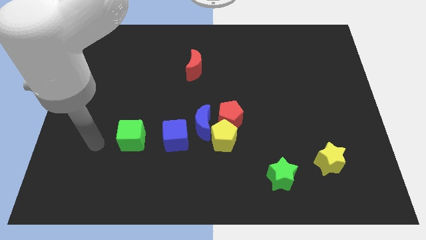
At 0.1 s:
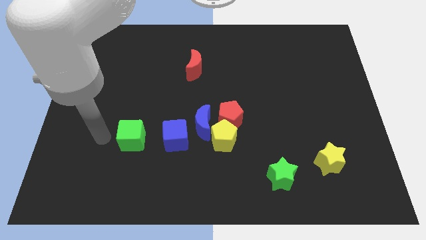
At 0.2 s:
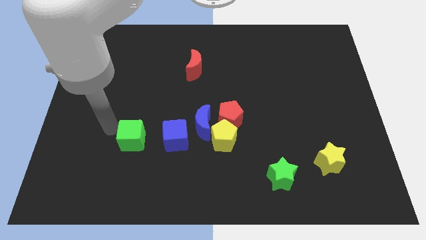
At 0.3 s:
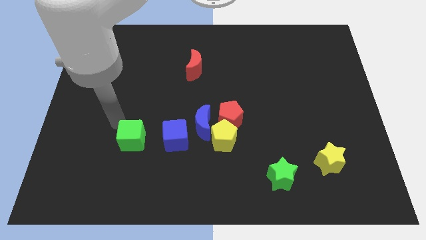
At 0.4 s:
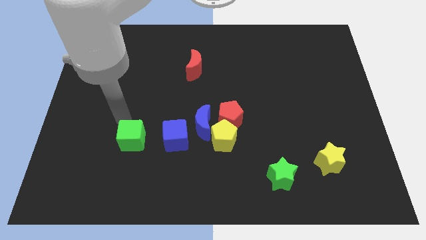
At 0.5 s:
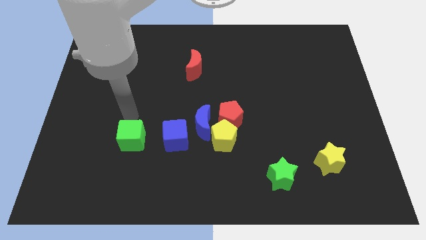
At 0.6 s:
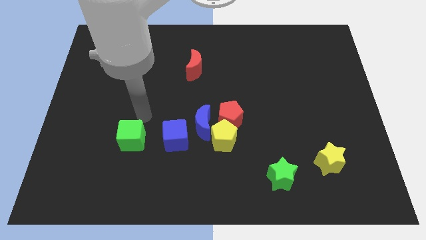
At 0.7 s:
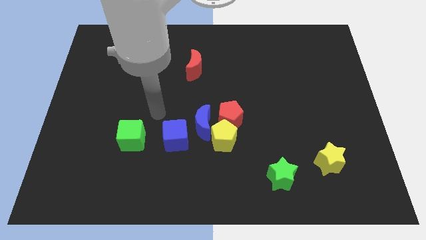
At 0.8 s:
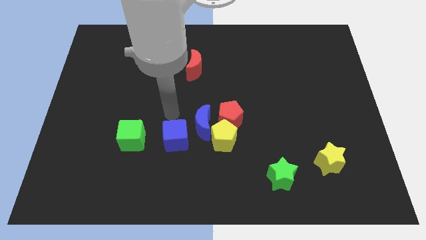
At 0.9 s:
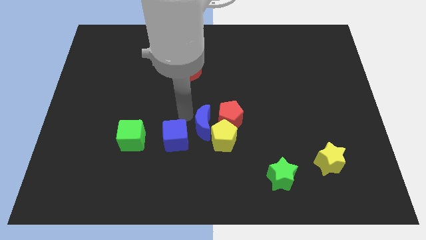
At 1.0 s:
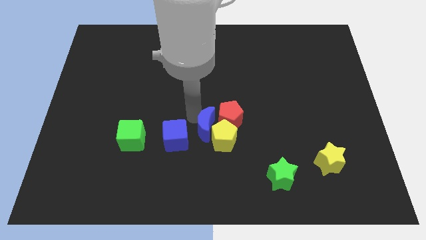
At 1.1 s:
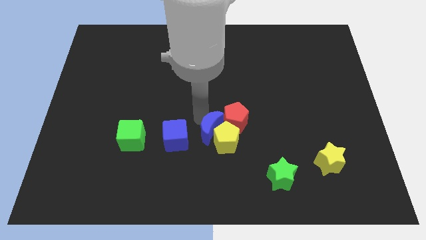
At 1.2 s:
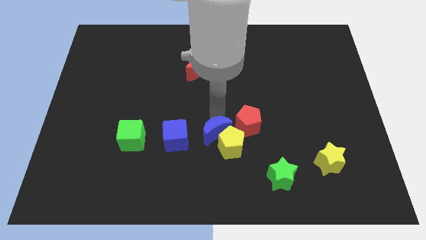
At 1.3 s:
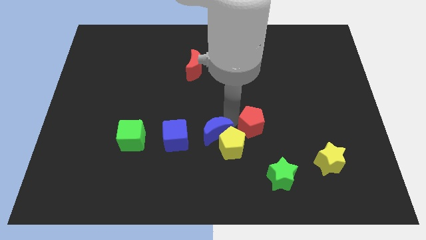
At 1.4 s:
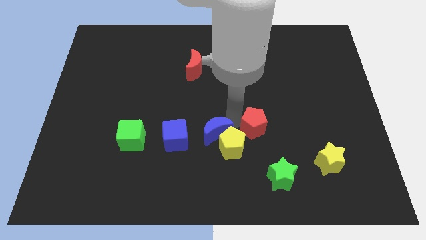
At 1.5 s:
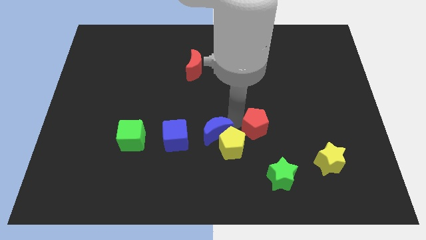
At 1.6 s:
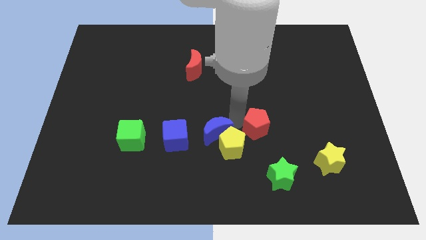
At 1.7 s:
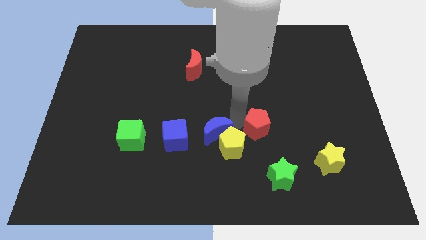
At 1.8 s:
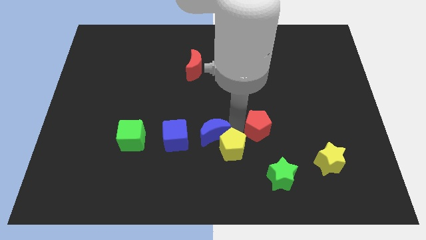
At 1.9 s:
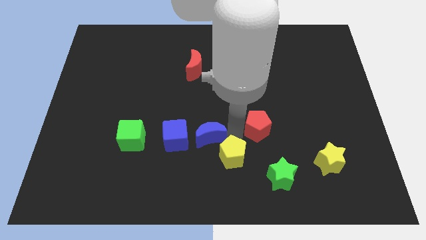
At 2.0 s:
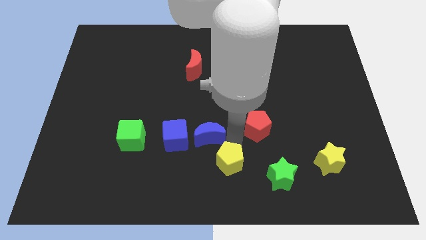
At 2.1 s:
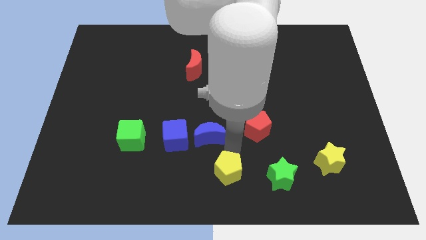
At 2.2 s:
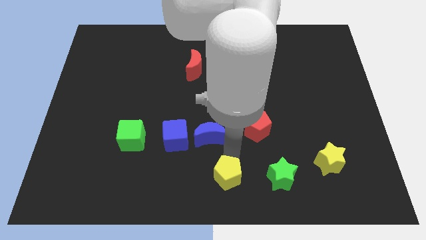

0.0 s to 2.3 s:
separate the yellow pentagon from the red pentagon and blue moon

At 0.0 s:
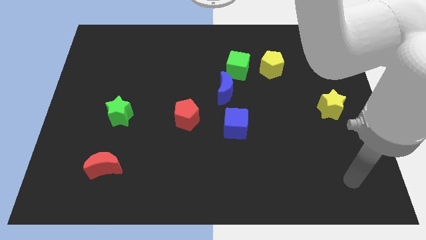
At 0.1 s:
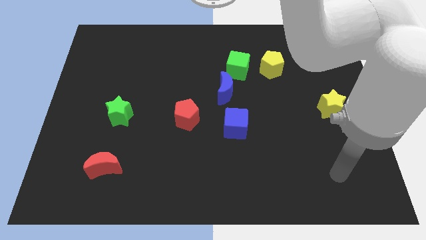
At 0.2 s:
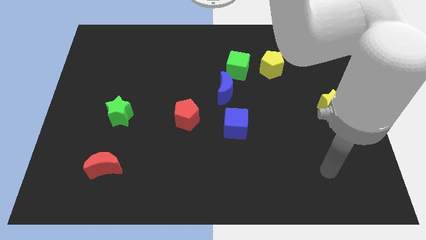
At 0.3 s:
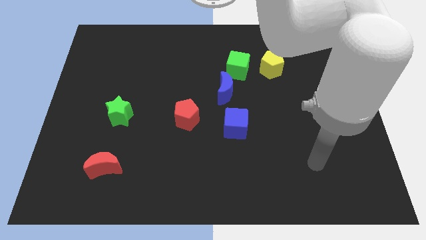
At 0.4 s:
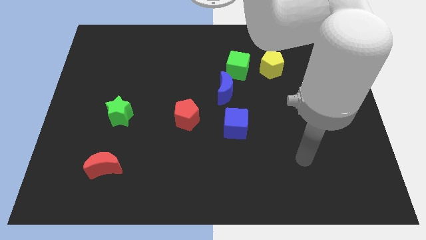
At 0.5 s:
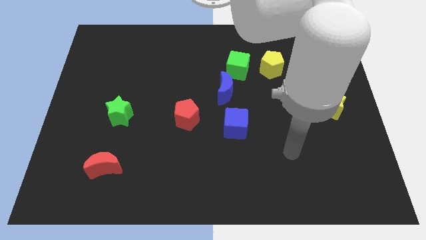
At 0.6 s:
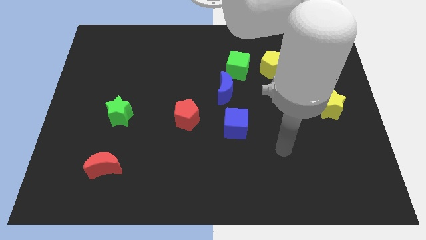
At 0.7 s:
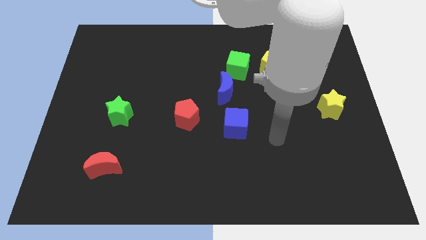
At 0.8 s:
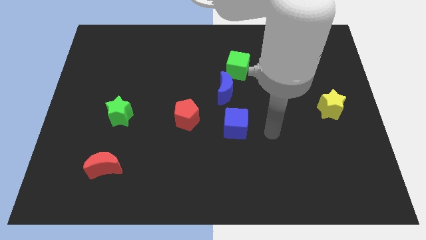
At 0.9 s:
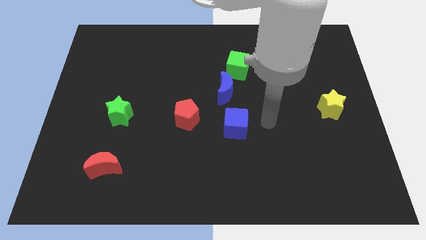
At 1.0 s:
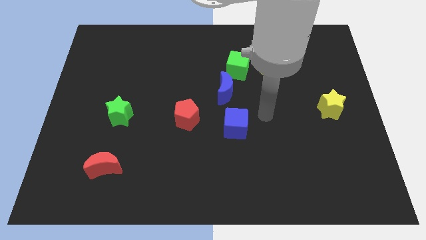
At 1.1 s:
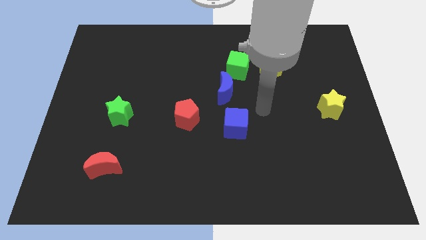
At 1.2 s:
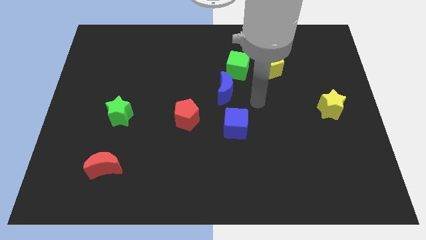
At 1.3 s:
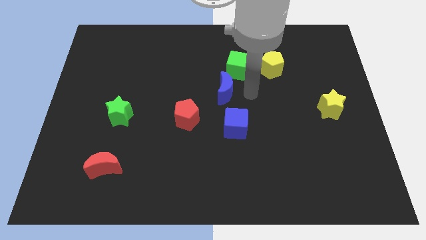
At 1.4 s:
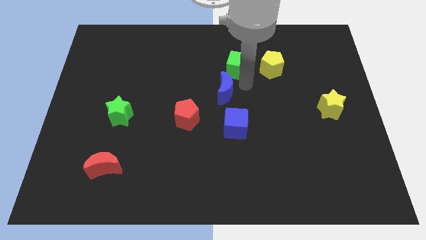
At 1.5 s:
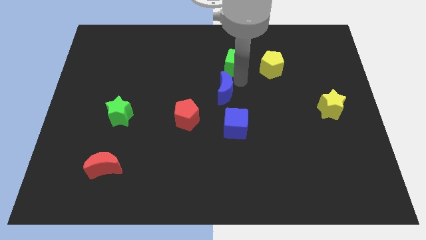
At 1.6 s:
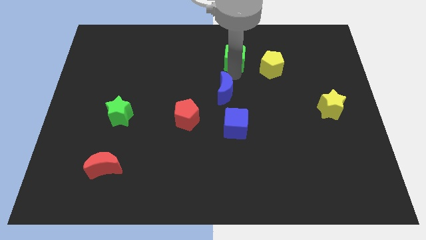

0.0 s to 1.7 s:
move the blue moon away from the green cube

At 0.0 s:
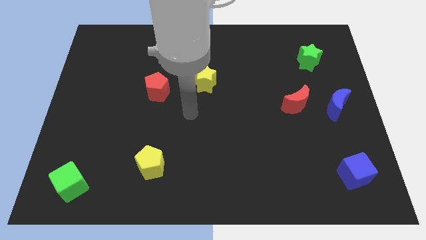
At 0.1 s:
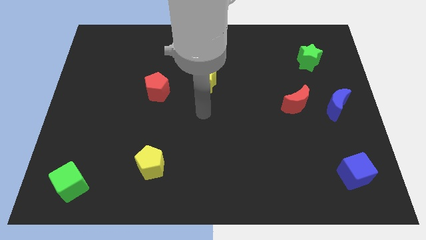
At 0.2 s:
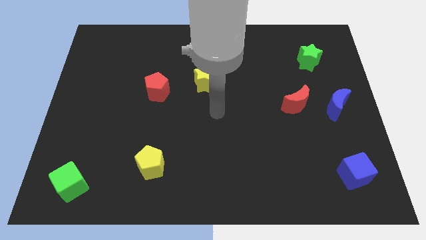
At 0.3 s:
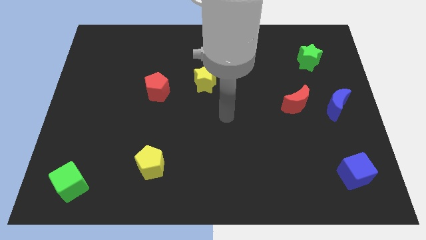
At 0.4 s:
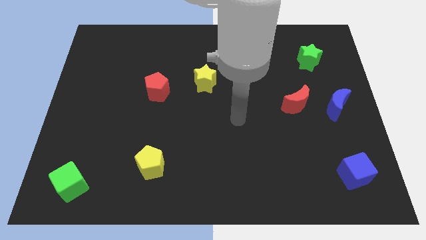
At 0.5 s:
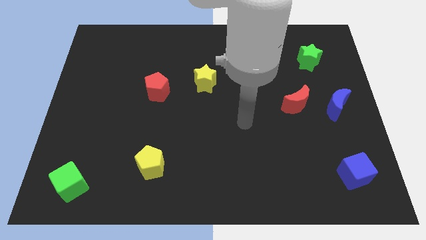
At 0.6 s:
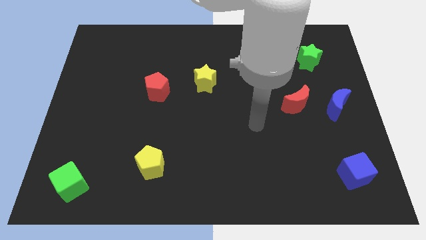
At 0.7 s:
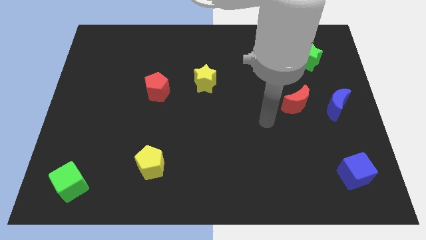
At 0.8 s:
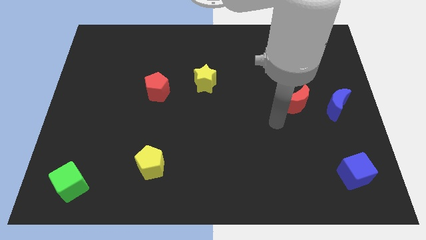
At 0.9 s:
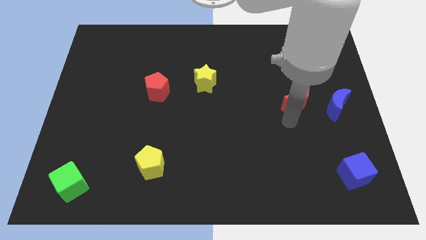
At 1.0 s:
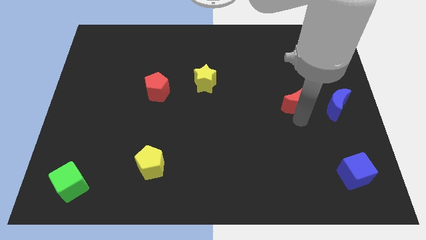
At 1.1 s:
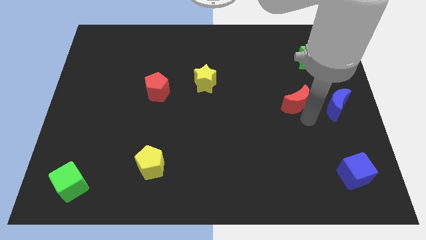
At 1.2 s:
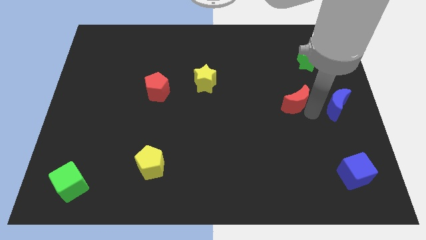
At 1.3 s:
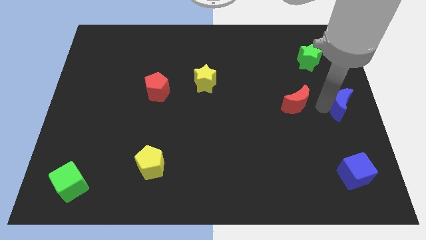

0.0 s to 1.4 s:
separate the red moon from the blue moon

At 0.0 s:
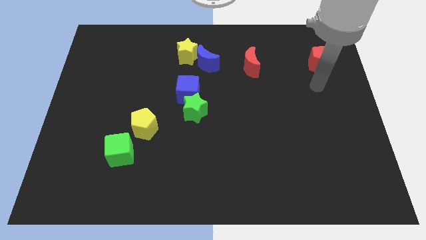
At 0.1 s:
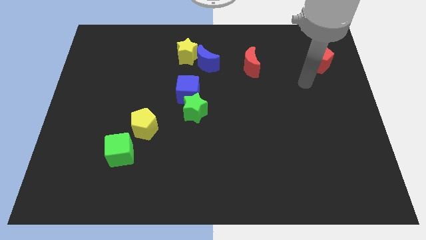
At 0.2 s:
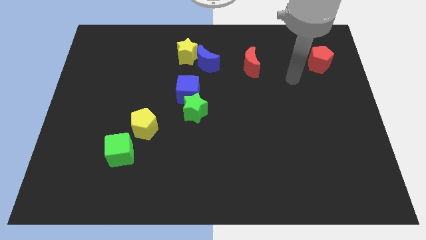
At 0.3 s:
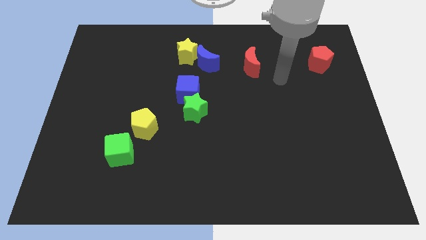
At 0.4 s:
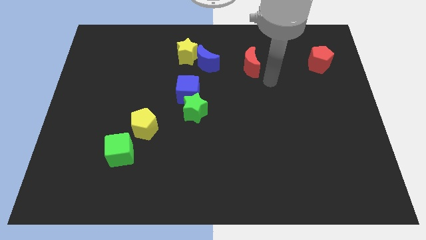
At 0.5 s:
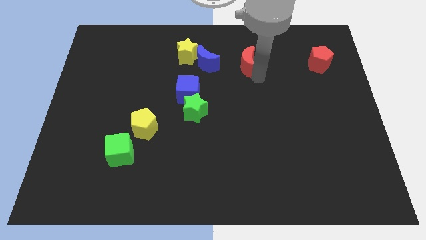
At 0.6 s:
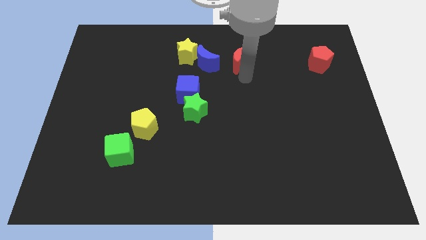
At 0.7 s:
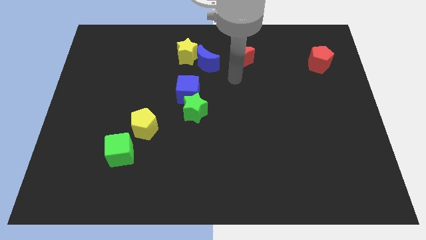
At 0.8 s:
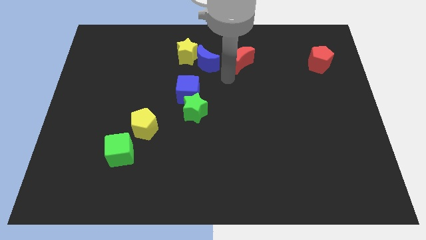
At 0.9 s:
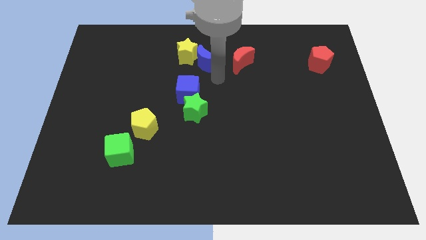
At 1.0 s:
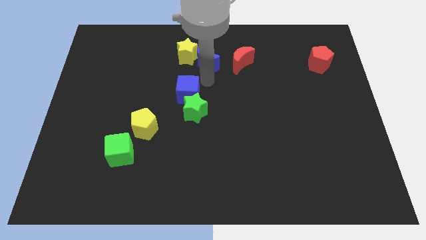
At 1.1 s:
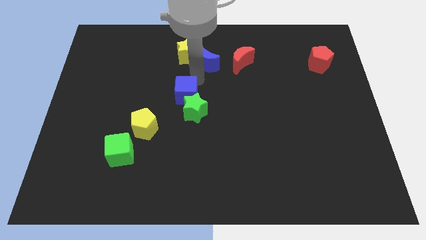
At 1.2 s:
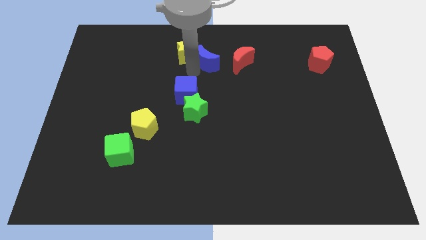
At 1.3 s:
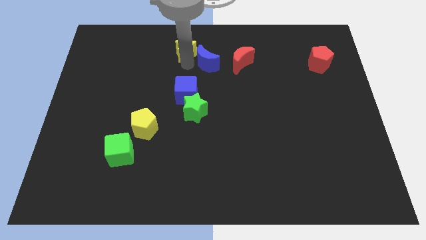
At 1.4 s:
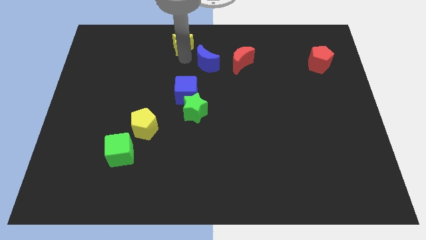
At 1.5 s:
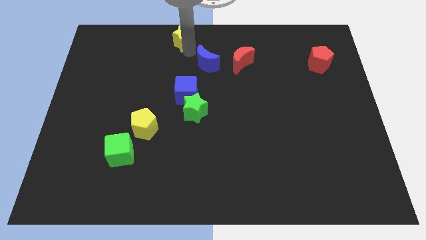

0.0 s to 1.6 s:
separate the blue moon from the yellow star

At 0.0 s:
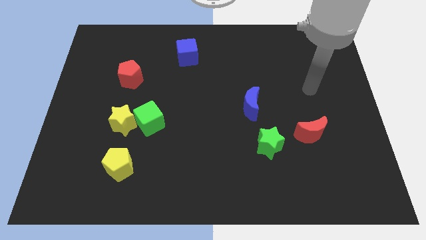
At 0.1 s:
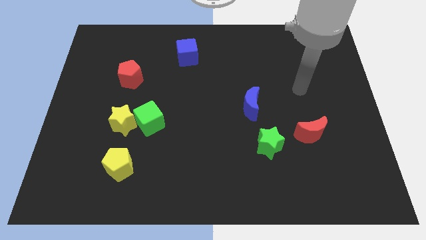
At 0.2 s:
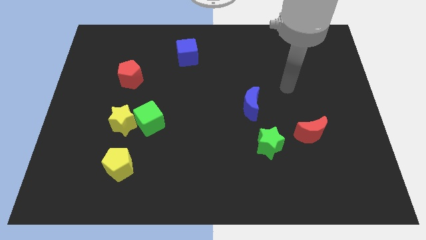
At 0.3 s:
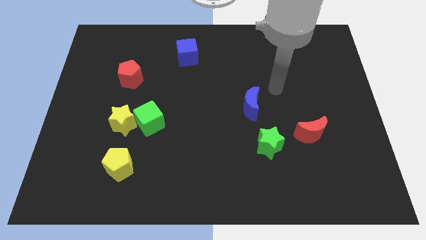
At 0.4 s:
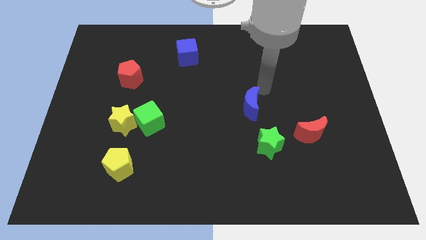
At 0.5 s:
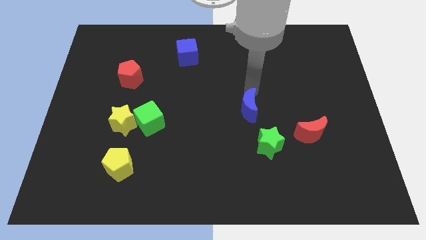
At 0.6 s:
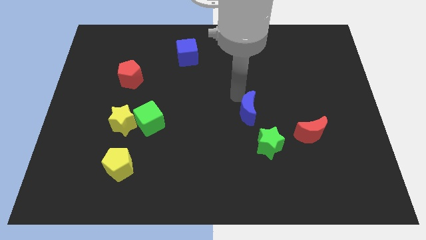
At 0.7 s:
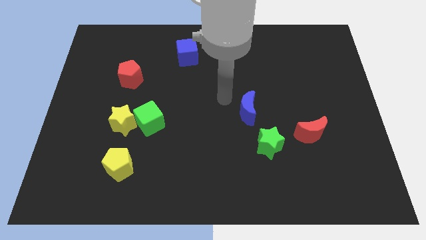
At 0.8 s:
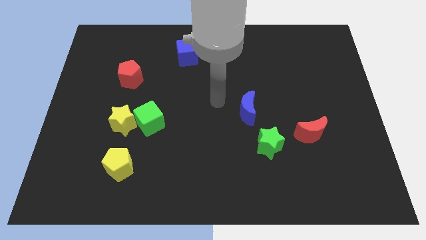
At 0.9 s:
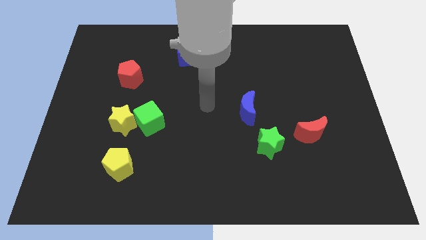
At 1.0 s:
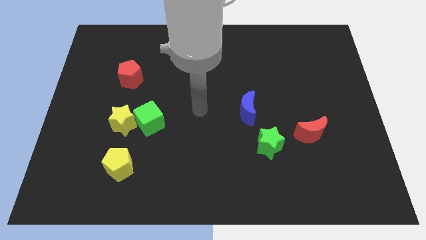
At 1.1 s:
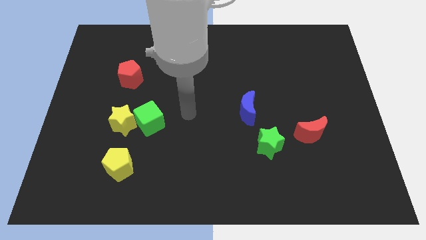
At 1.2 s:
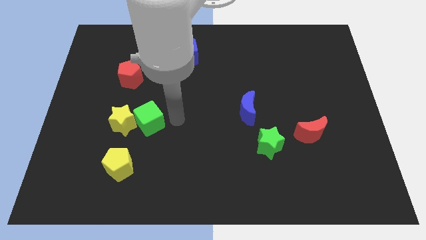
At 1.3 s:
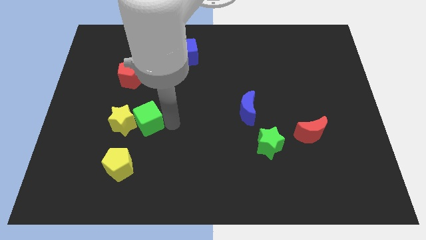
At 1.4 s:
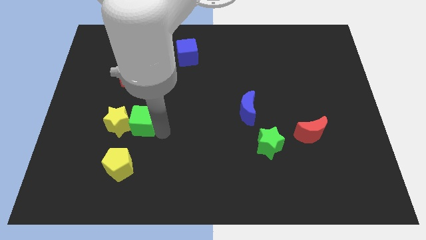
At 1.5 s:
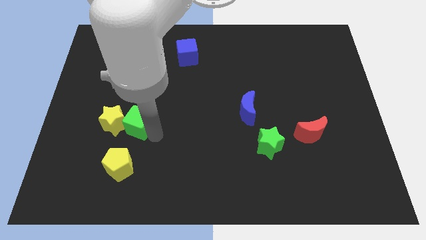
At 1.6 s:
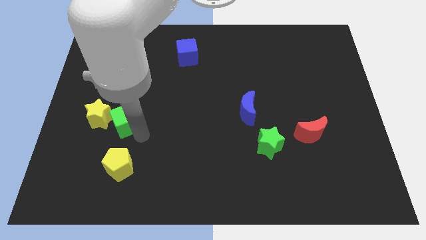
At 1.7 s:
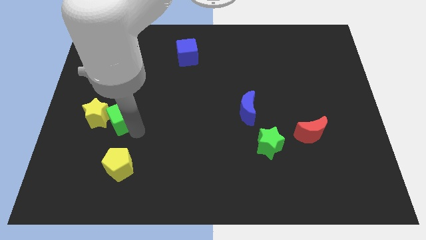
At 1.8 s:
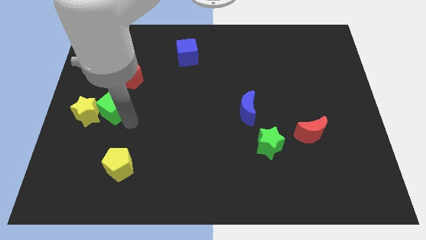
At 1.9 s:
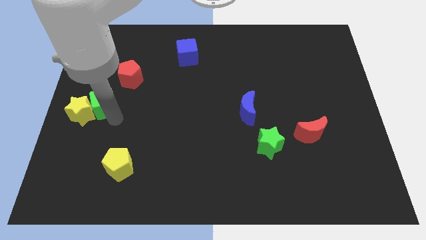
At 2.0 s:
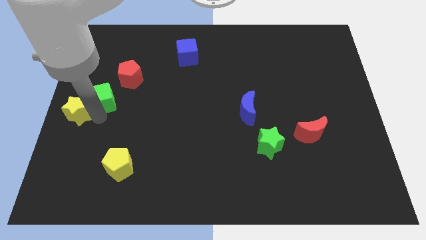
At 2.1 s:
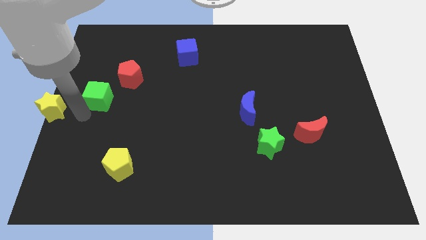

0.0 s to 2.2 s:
pull the green cube apart from the yellow star

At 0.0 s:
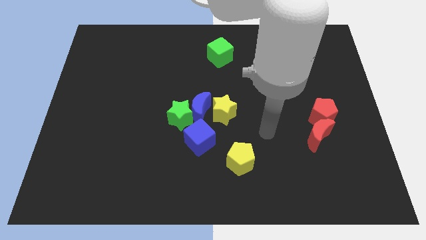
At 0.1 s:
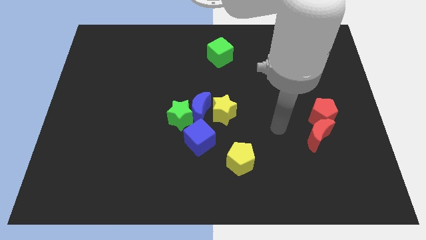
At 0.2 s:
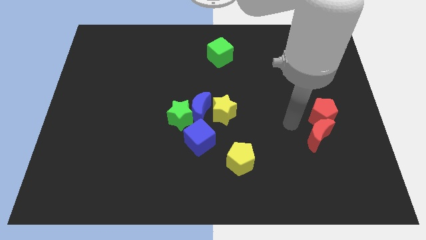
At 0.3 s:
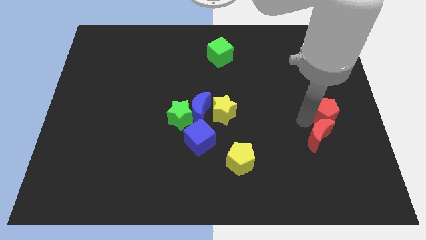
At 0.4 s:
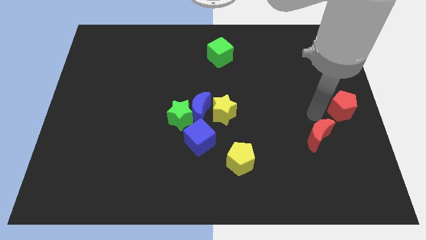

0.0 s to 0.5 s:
separate the red moon from the red pentagon
